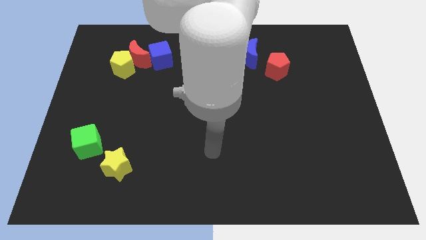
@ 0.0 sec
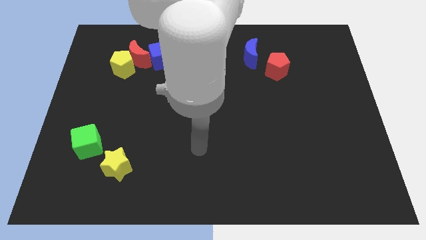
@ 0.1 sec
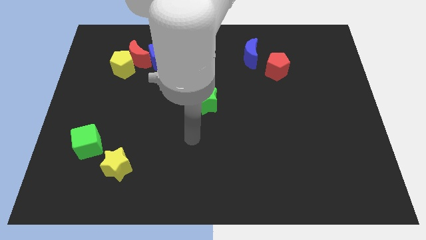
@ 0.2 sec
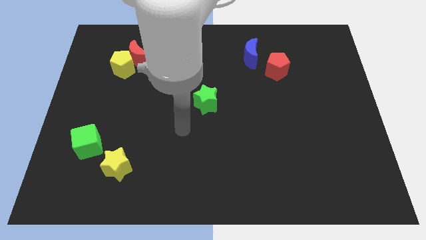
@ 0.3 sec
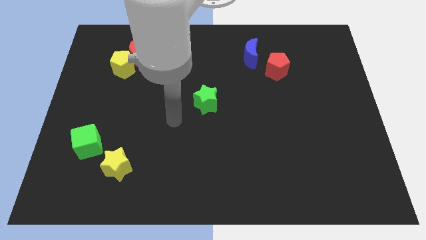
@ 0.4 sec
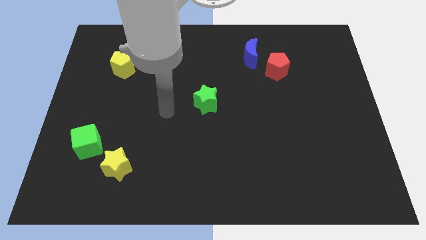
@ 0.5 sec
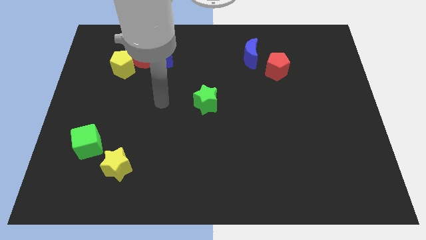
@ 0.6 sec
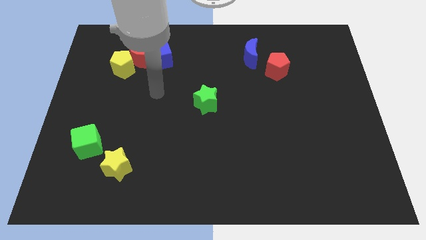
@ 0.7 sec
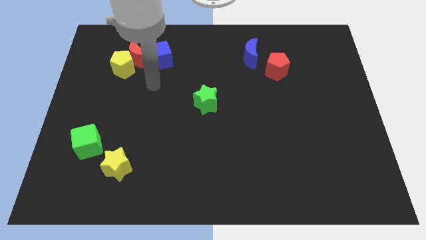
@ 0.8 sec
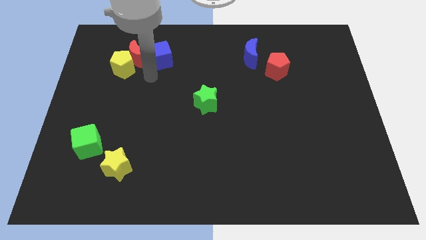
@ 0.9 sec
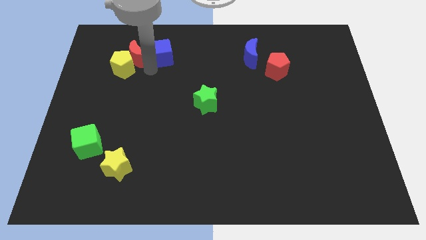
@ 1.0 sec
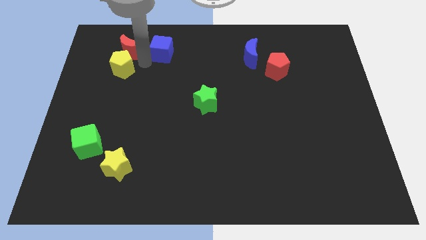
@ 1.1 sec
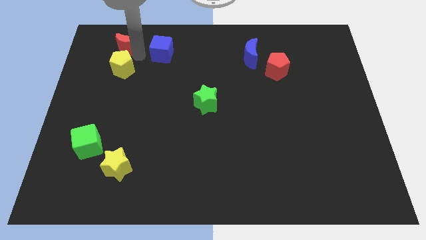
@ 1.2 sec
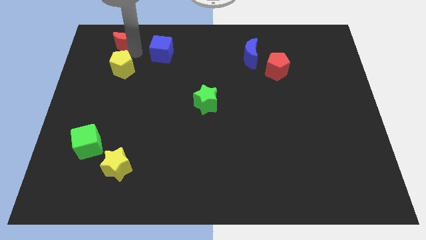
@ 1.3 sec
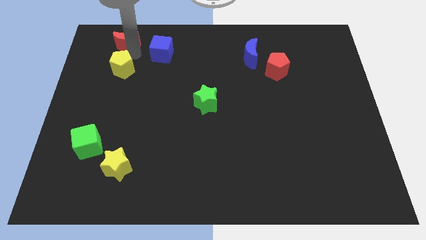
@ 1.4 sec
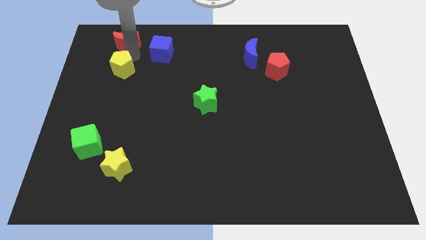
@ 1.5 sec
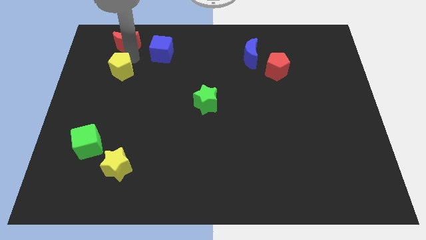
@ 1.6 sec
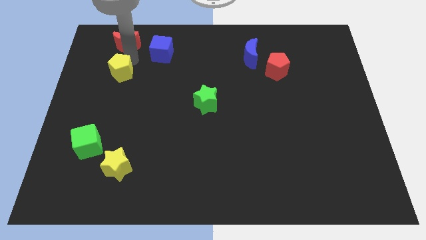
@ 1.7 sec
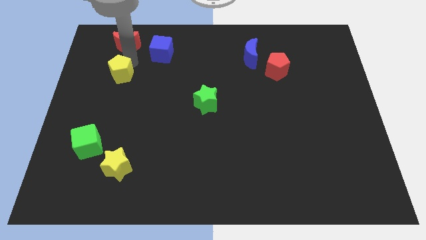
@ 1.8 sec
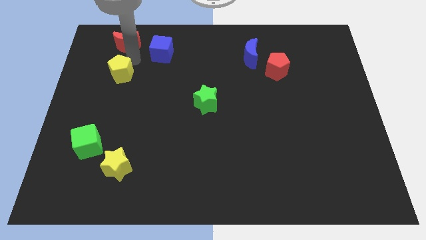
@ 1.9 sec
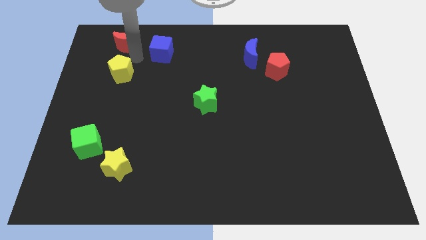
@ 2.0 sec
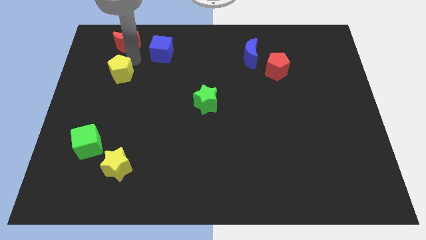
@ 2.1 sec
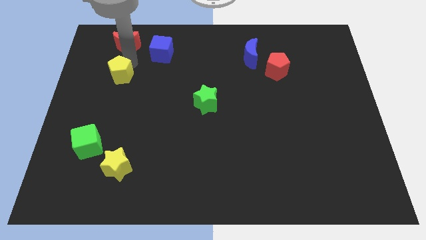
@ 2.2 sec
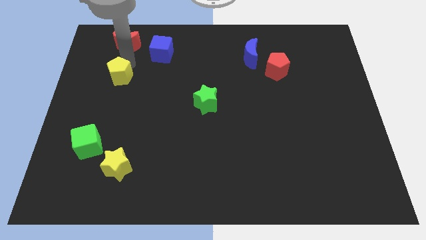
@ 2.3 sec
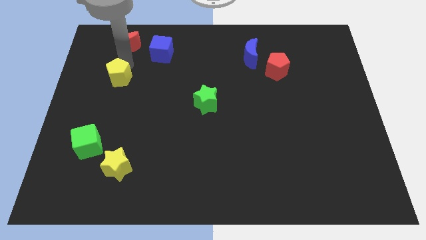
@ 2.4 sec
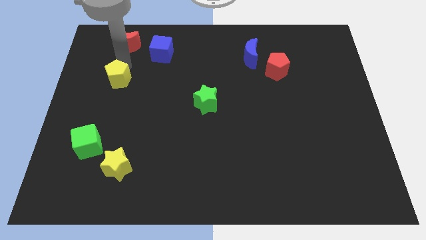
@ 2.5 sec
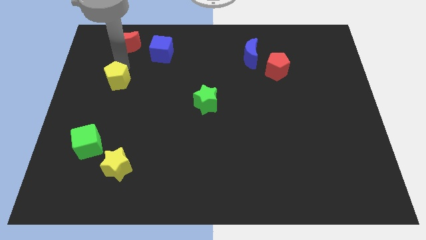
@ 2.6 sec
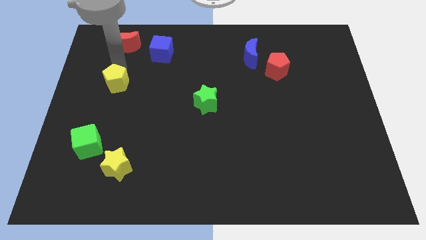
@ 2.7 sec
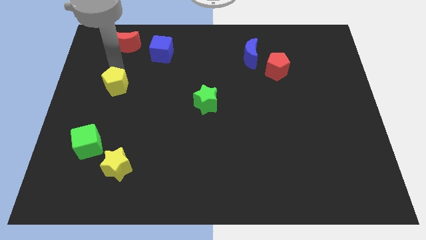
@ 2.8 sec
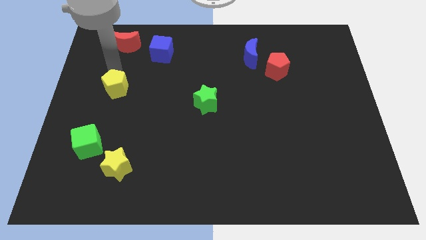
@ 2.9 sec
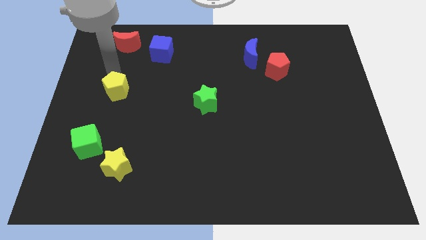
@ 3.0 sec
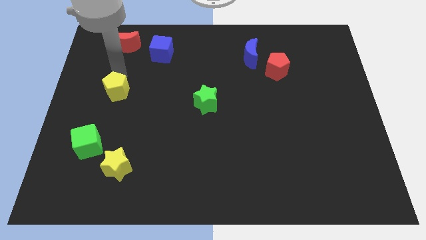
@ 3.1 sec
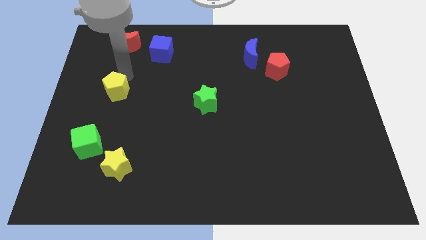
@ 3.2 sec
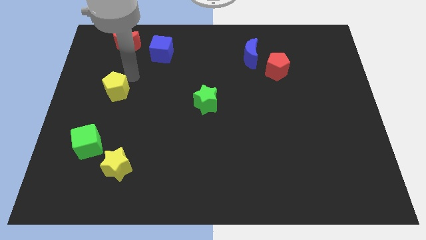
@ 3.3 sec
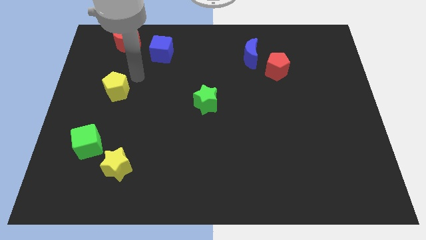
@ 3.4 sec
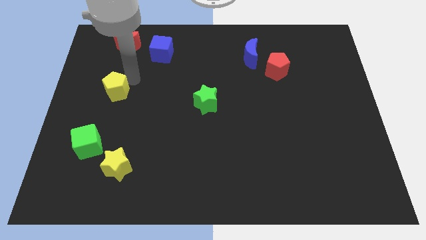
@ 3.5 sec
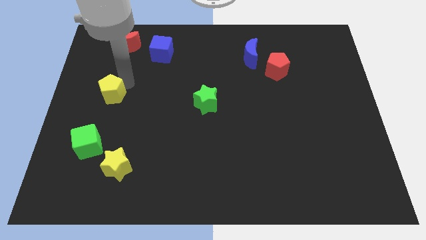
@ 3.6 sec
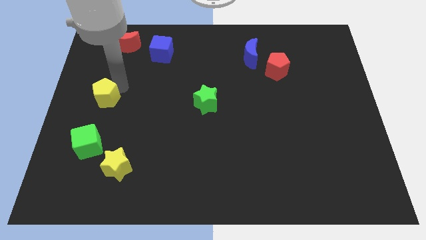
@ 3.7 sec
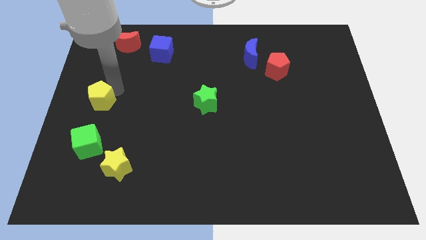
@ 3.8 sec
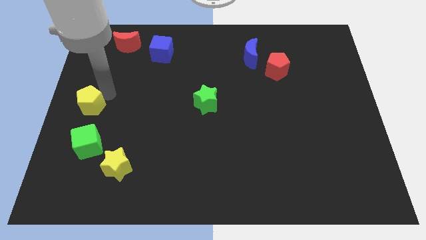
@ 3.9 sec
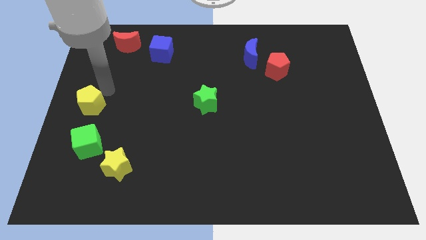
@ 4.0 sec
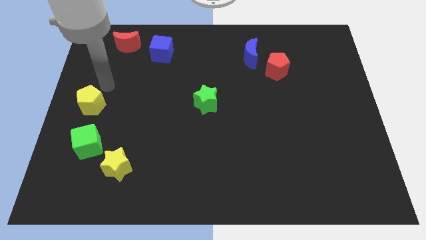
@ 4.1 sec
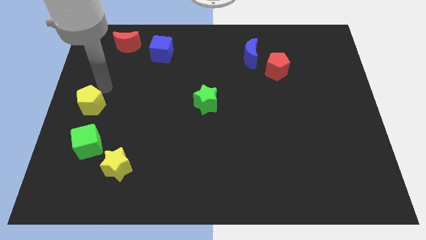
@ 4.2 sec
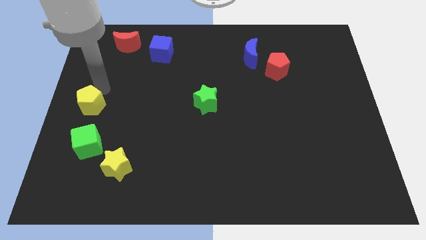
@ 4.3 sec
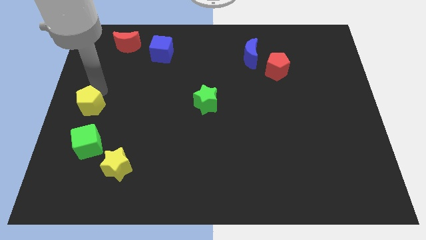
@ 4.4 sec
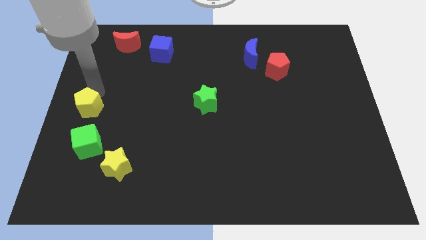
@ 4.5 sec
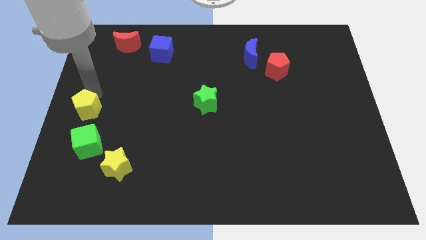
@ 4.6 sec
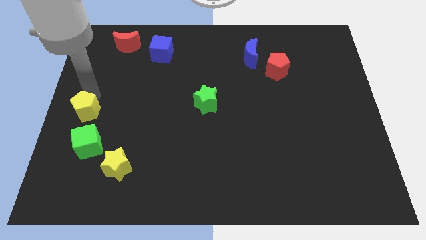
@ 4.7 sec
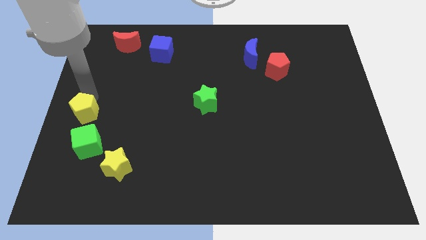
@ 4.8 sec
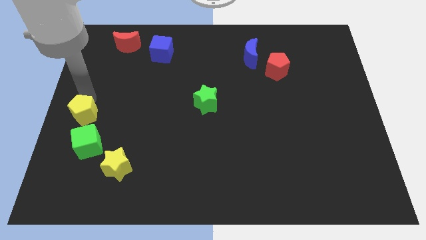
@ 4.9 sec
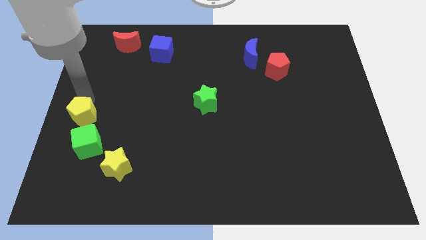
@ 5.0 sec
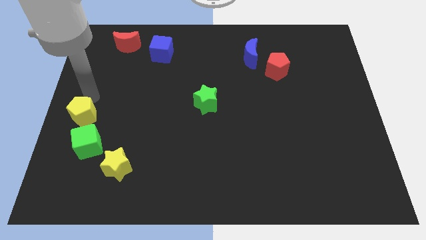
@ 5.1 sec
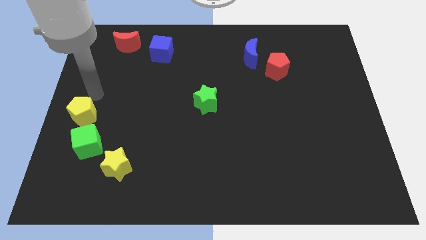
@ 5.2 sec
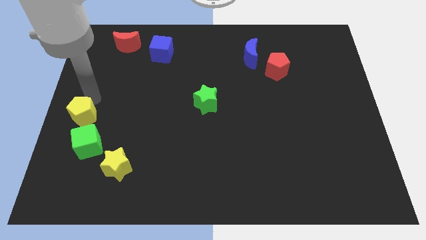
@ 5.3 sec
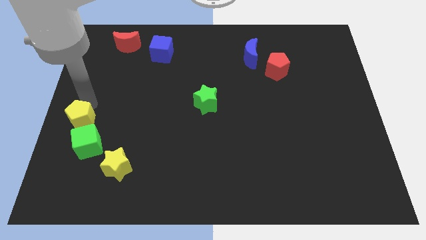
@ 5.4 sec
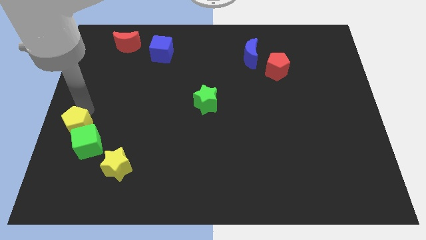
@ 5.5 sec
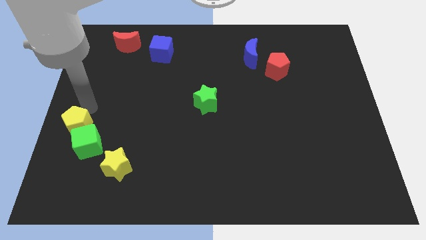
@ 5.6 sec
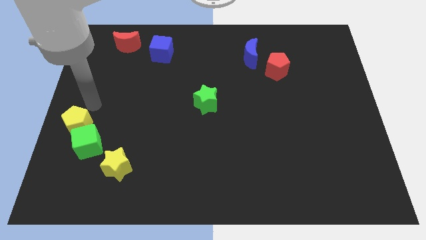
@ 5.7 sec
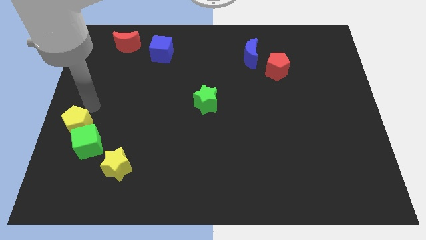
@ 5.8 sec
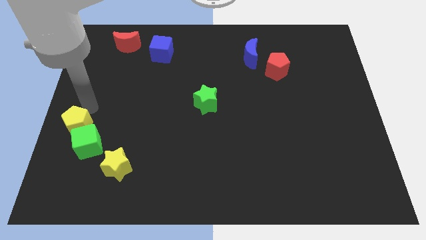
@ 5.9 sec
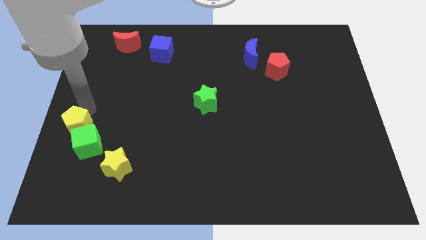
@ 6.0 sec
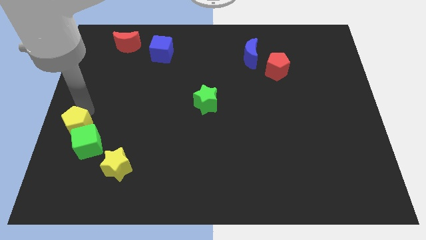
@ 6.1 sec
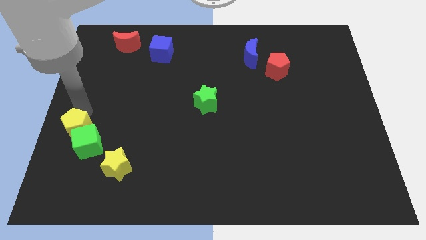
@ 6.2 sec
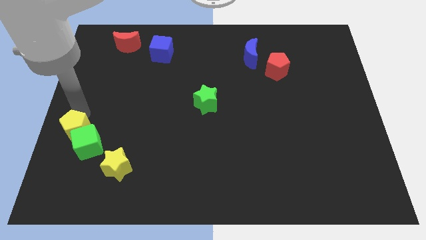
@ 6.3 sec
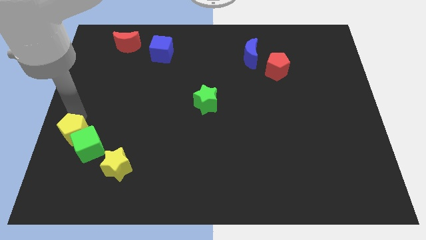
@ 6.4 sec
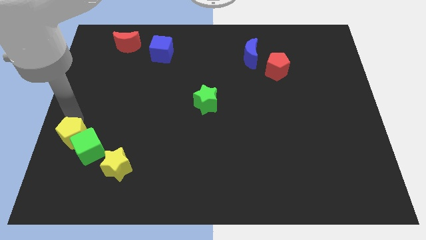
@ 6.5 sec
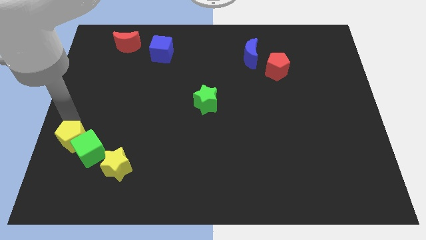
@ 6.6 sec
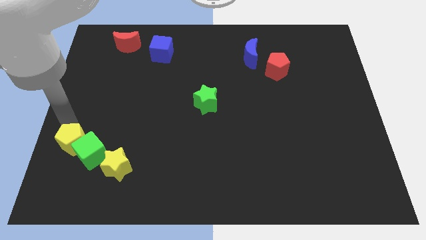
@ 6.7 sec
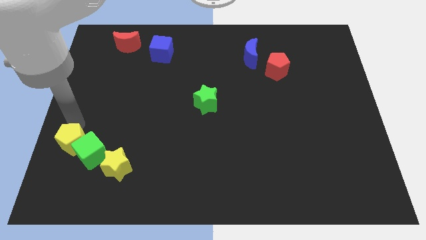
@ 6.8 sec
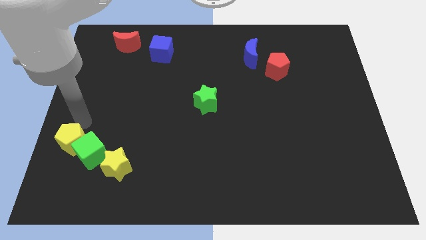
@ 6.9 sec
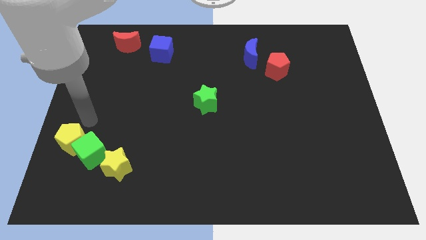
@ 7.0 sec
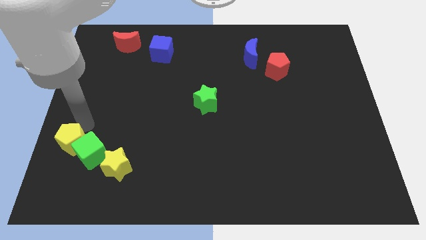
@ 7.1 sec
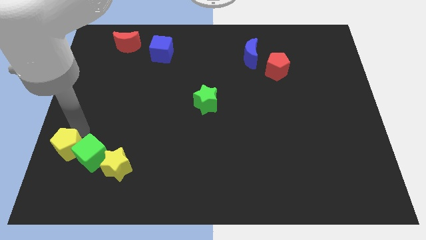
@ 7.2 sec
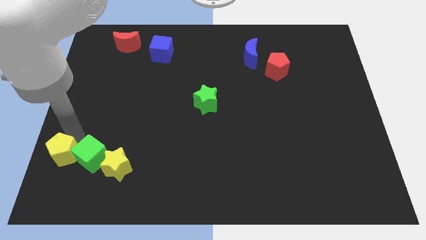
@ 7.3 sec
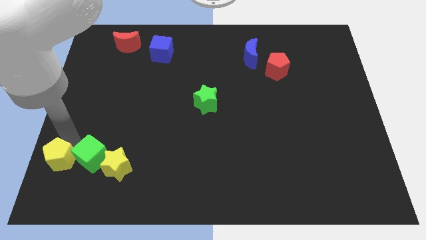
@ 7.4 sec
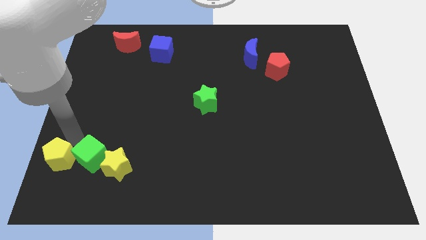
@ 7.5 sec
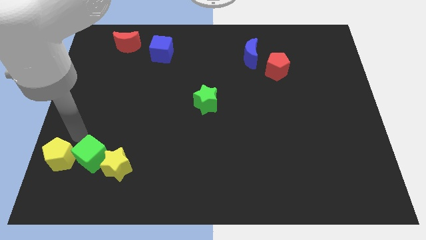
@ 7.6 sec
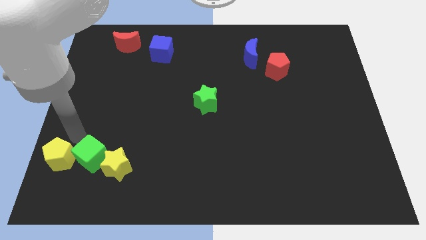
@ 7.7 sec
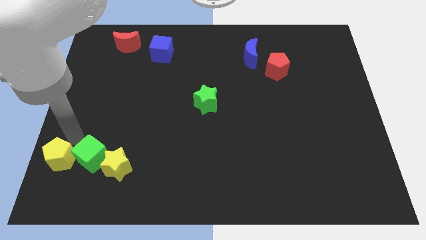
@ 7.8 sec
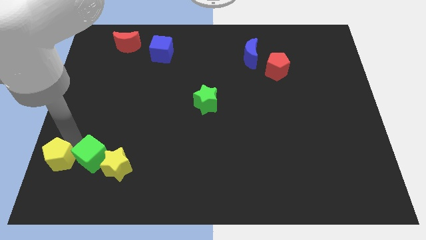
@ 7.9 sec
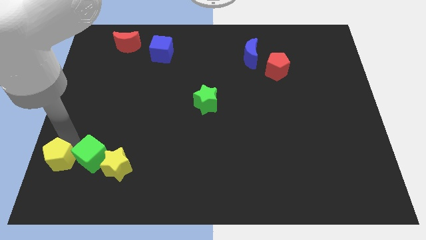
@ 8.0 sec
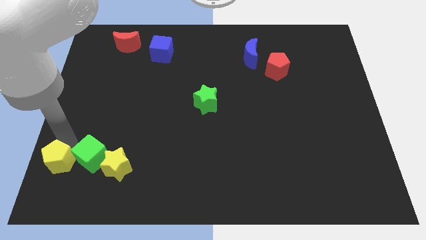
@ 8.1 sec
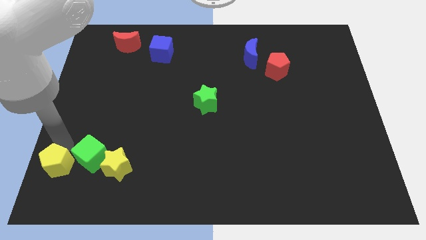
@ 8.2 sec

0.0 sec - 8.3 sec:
push the yellow pentagon to the bottom left
